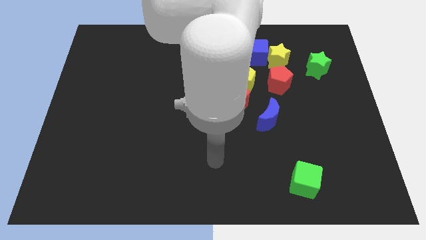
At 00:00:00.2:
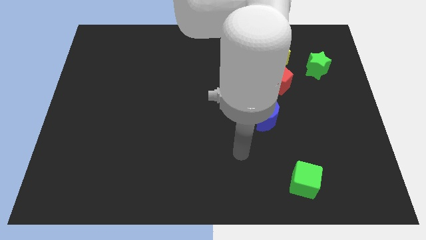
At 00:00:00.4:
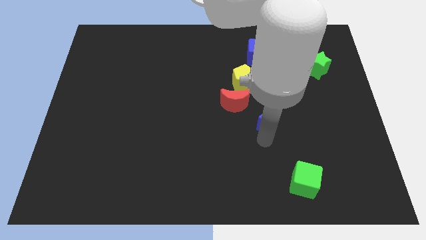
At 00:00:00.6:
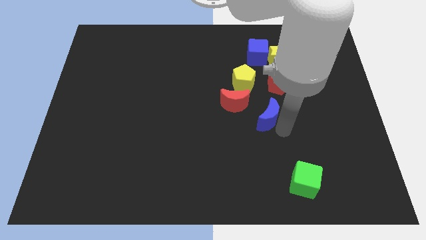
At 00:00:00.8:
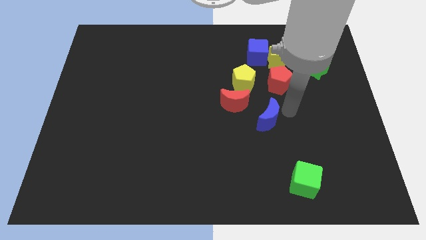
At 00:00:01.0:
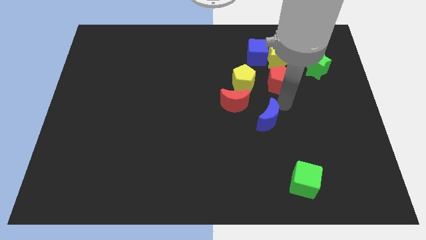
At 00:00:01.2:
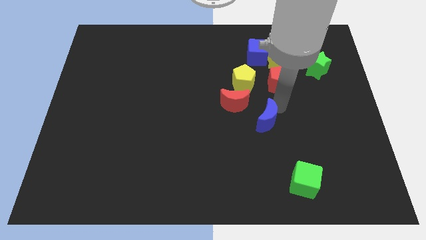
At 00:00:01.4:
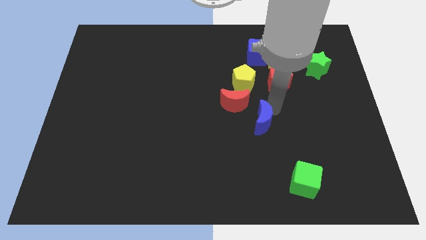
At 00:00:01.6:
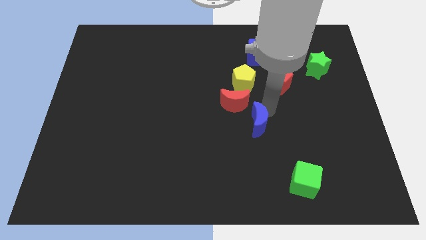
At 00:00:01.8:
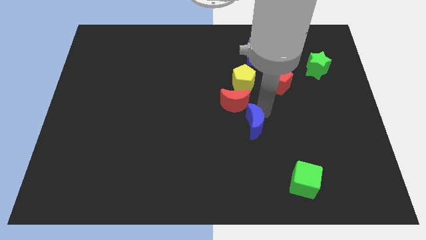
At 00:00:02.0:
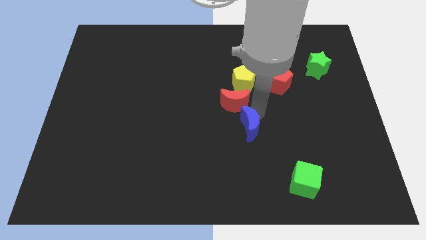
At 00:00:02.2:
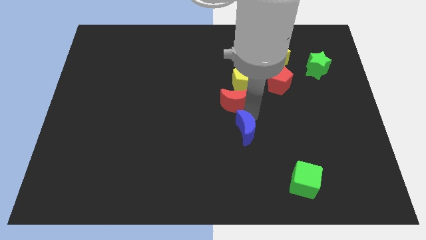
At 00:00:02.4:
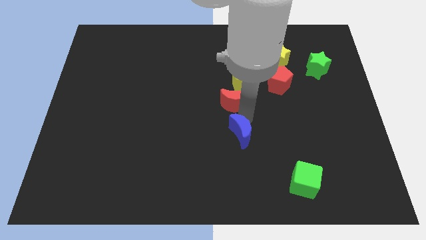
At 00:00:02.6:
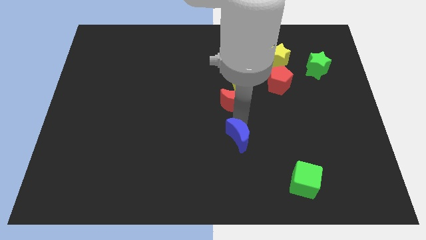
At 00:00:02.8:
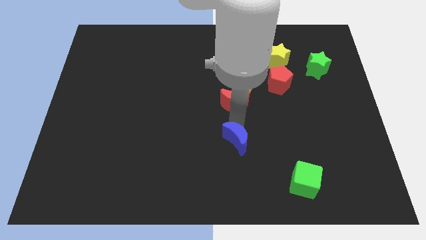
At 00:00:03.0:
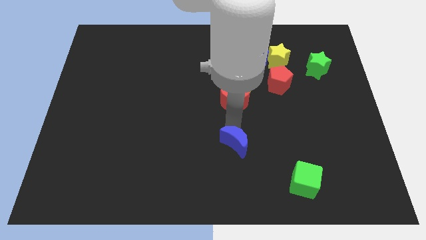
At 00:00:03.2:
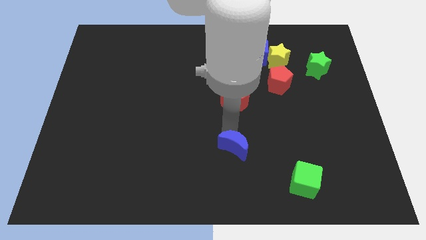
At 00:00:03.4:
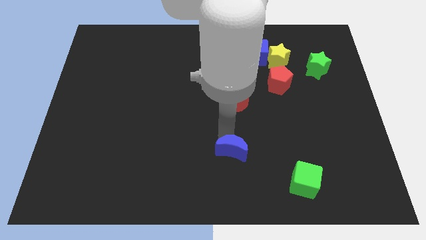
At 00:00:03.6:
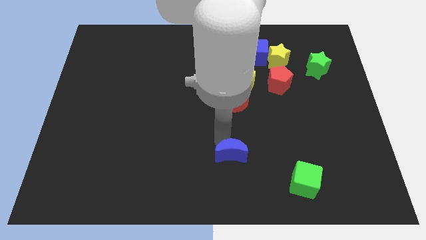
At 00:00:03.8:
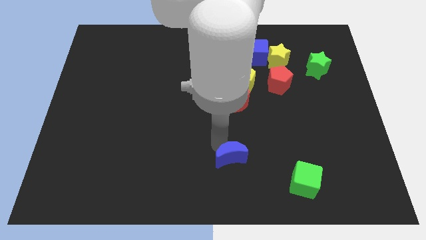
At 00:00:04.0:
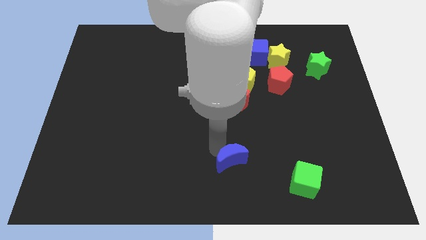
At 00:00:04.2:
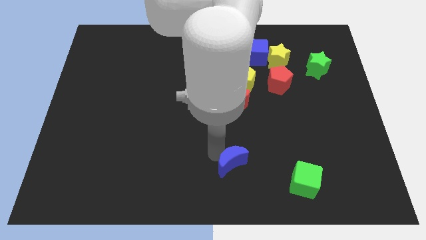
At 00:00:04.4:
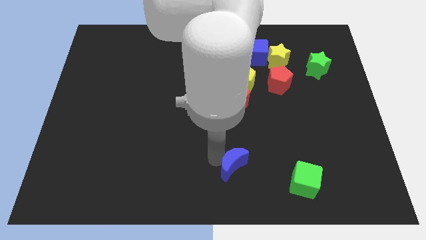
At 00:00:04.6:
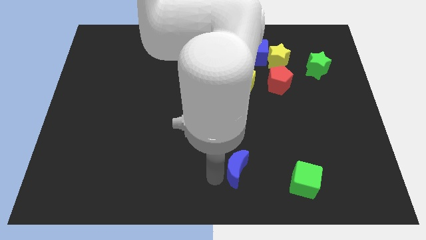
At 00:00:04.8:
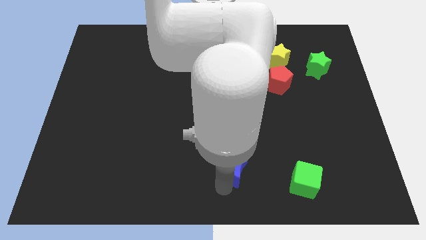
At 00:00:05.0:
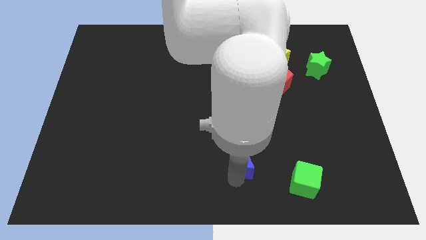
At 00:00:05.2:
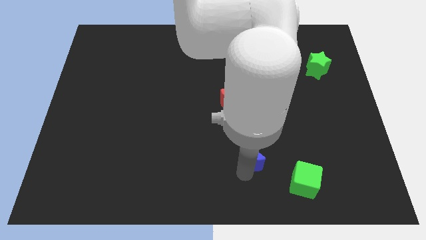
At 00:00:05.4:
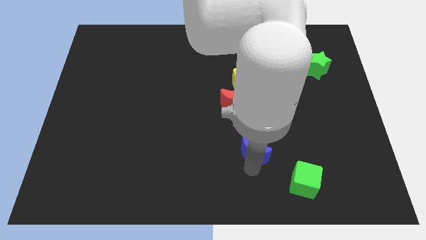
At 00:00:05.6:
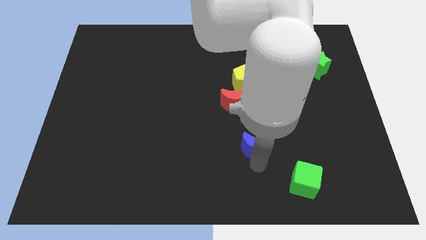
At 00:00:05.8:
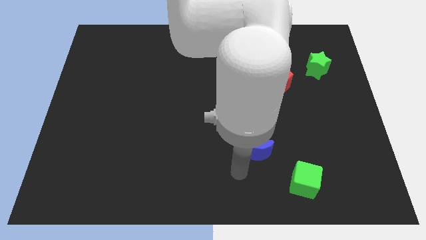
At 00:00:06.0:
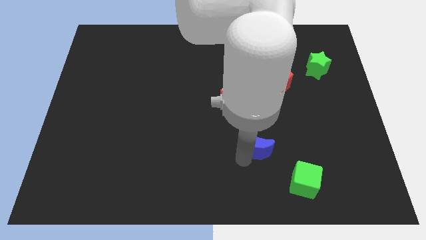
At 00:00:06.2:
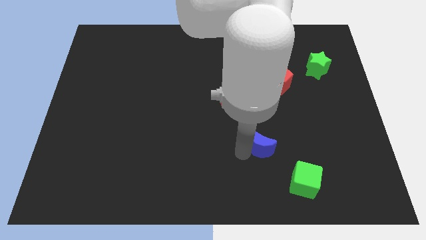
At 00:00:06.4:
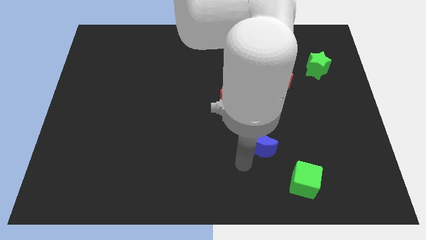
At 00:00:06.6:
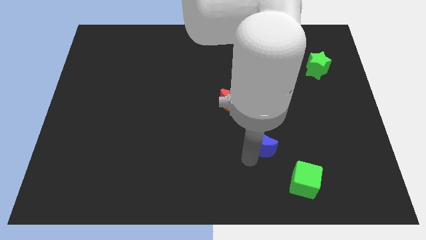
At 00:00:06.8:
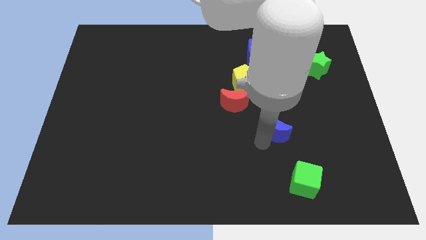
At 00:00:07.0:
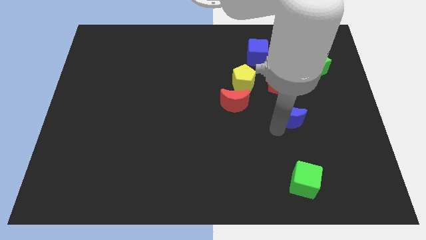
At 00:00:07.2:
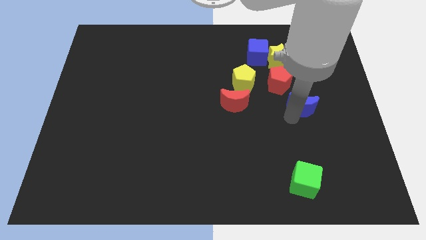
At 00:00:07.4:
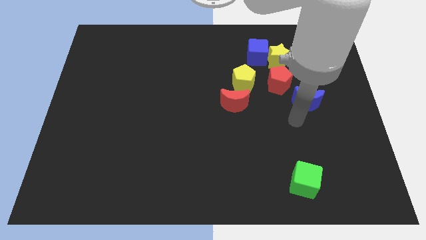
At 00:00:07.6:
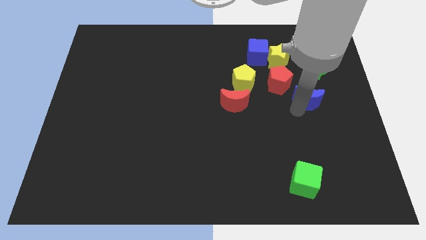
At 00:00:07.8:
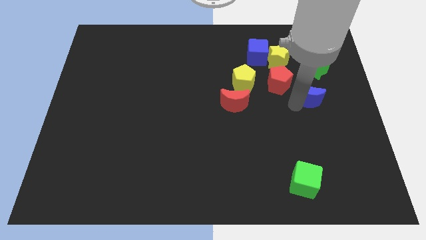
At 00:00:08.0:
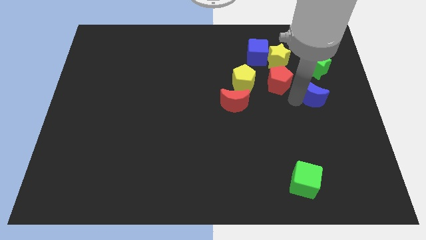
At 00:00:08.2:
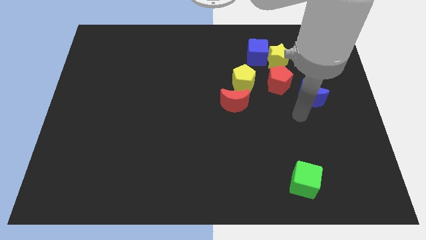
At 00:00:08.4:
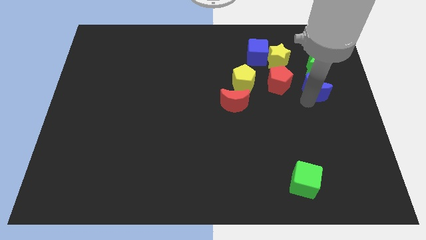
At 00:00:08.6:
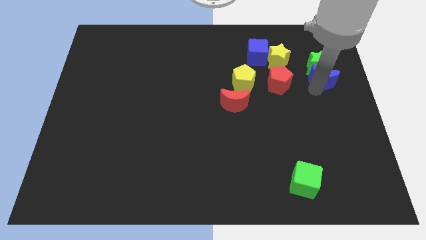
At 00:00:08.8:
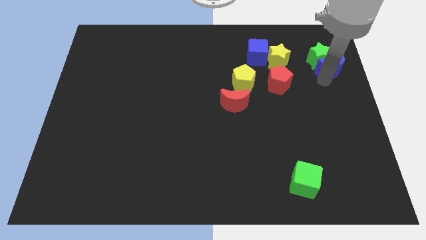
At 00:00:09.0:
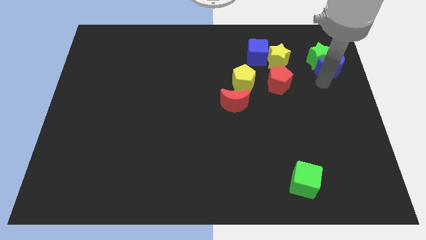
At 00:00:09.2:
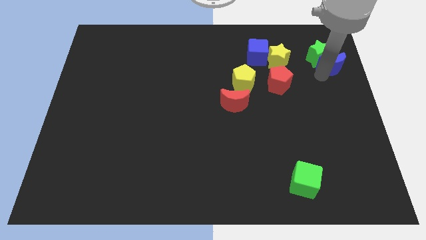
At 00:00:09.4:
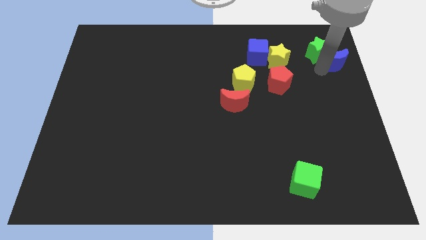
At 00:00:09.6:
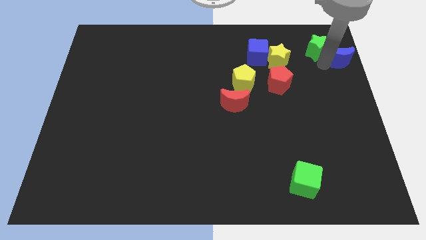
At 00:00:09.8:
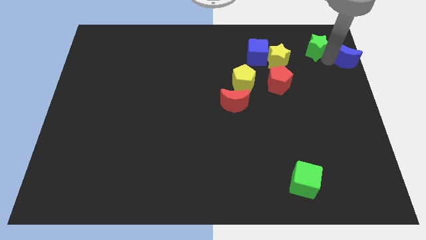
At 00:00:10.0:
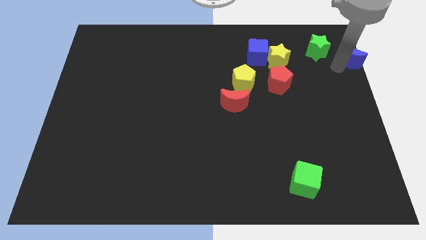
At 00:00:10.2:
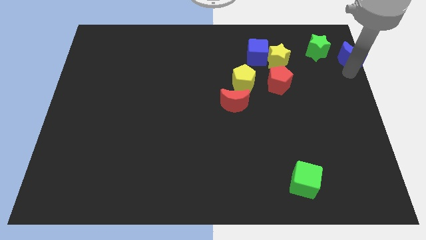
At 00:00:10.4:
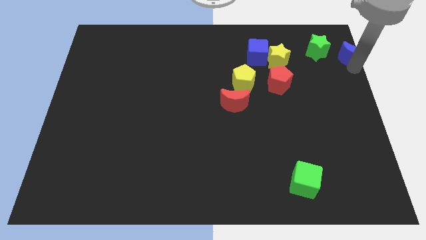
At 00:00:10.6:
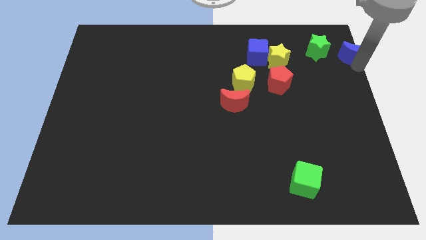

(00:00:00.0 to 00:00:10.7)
push the blue moon to the top right corner

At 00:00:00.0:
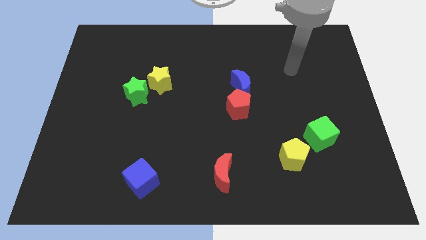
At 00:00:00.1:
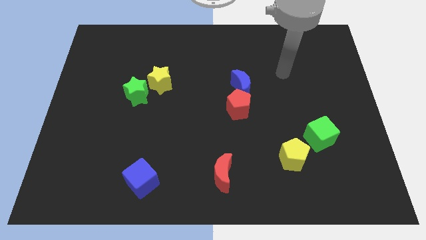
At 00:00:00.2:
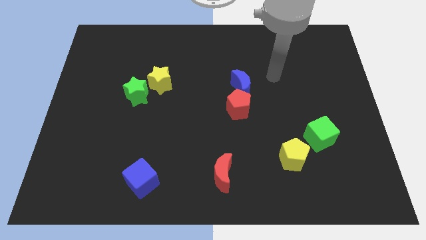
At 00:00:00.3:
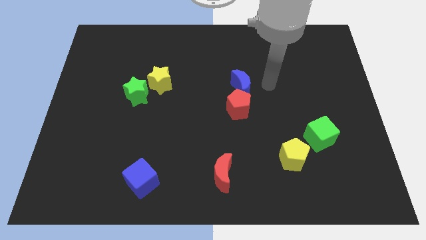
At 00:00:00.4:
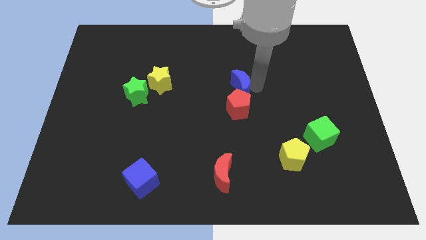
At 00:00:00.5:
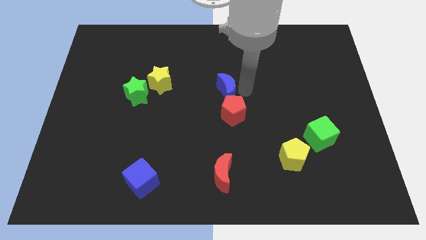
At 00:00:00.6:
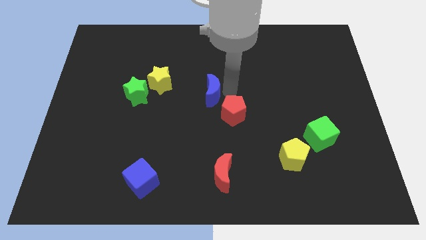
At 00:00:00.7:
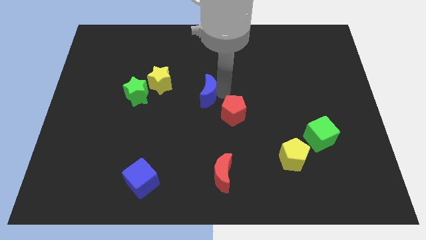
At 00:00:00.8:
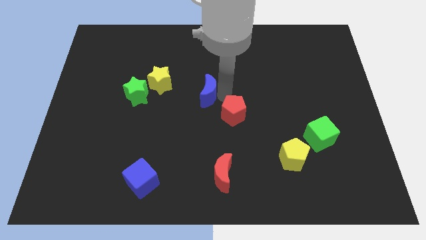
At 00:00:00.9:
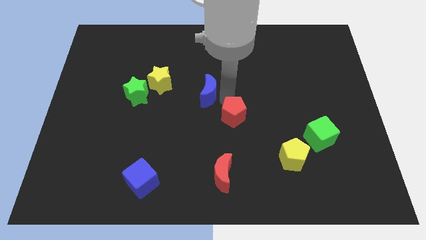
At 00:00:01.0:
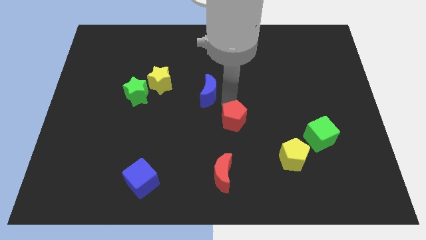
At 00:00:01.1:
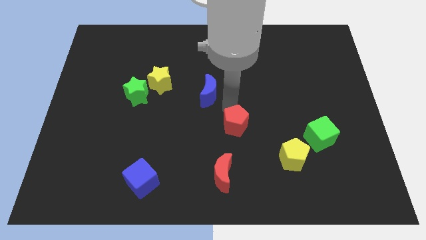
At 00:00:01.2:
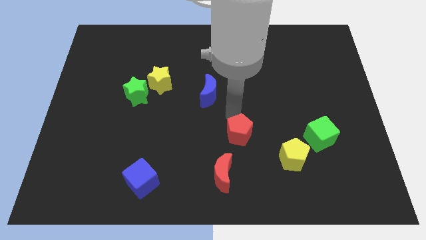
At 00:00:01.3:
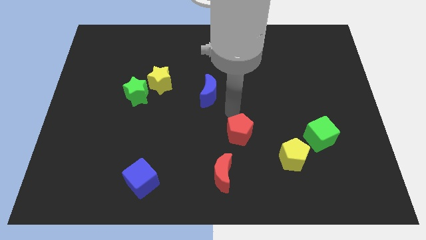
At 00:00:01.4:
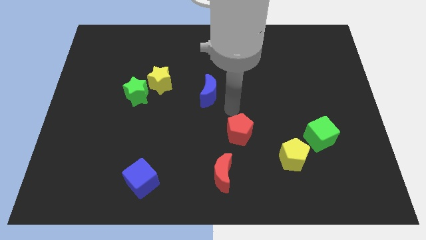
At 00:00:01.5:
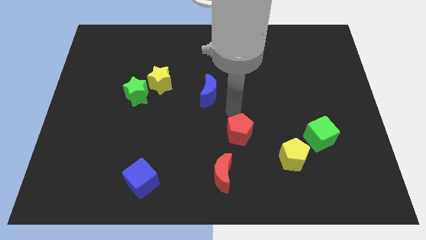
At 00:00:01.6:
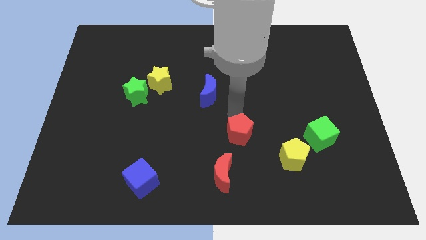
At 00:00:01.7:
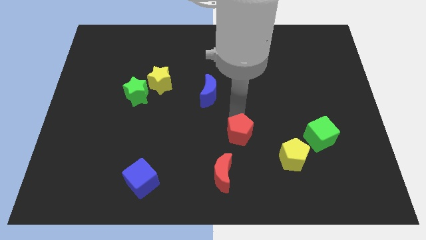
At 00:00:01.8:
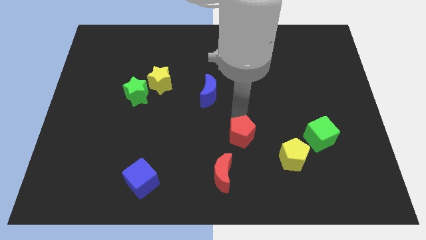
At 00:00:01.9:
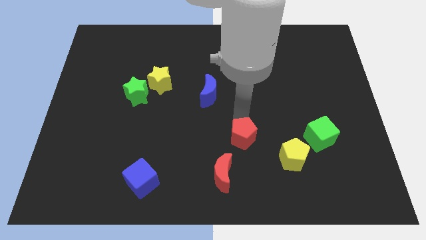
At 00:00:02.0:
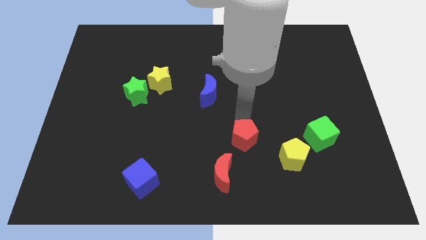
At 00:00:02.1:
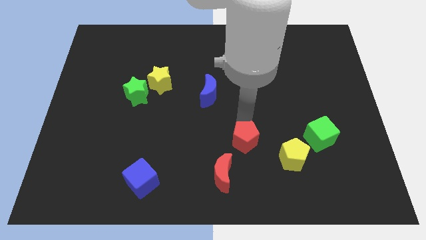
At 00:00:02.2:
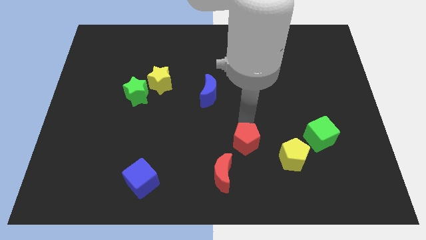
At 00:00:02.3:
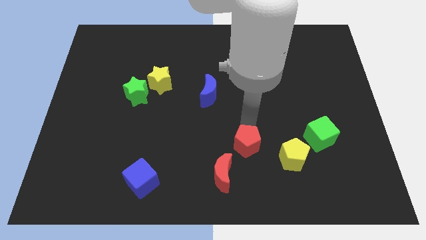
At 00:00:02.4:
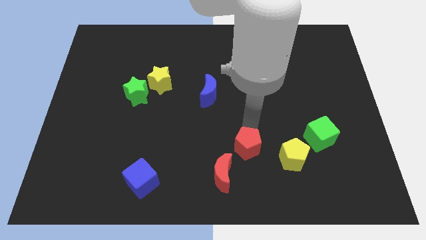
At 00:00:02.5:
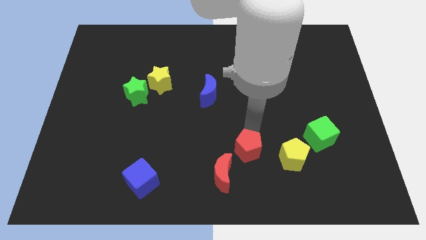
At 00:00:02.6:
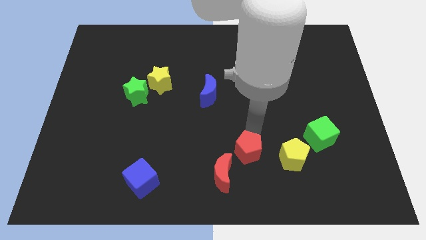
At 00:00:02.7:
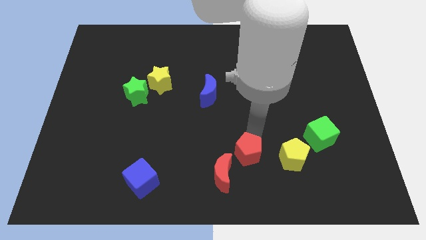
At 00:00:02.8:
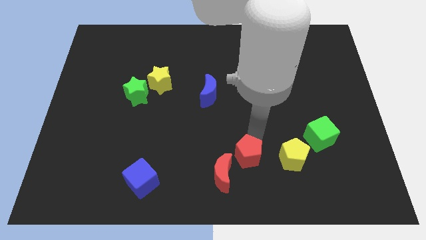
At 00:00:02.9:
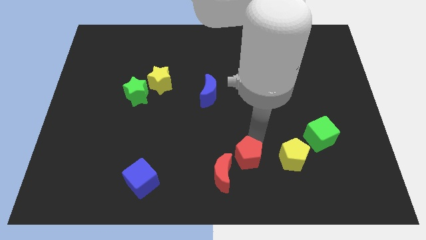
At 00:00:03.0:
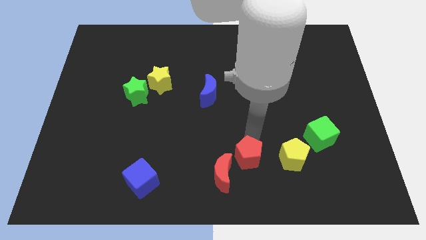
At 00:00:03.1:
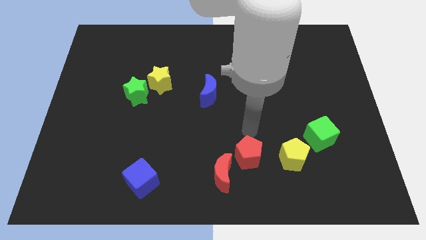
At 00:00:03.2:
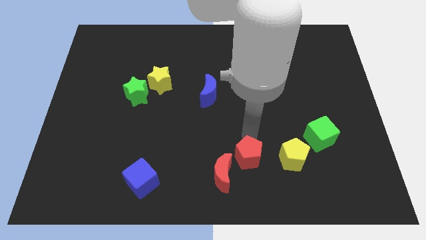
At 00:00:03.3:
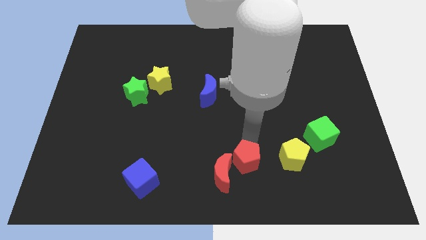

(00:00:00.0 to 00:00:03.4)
put the red pentagon to the bottom
